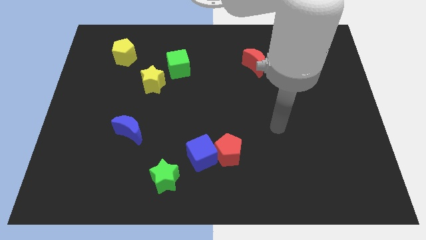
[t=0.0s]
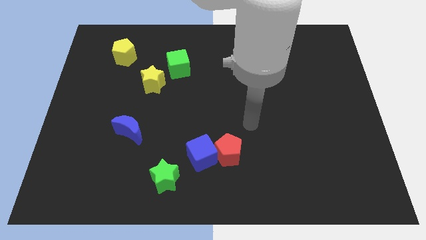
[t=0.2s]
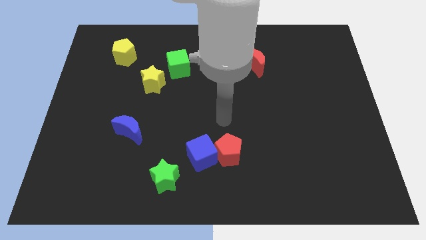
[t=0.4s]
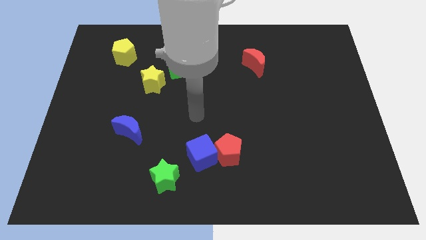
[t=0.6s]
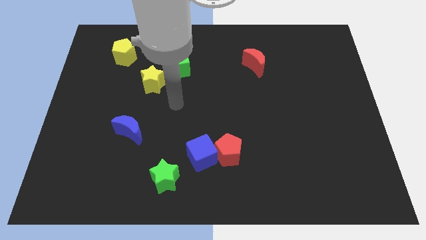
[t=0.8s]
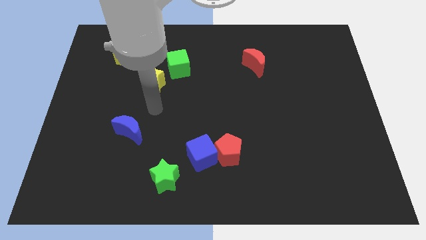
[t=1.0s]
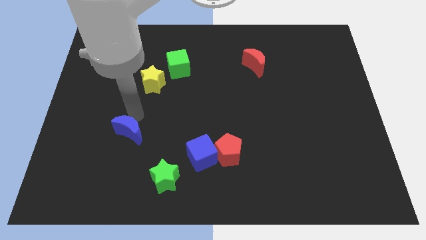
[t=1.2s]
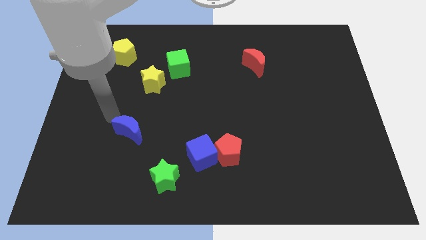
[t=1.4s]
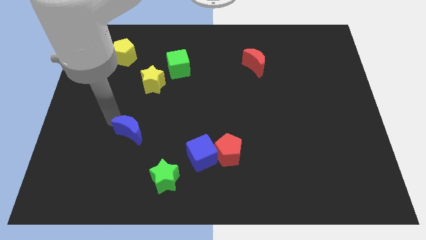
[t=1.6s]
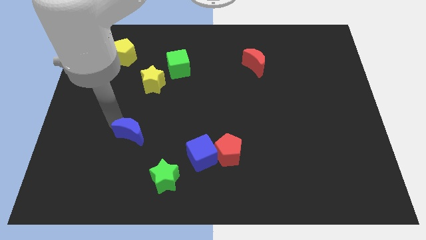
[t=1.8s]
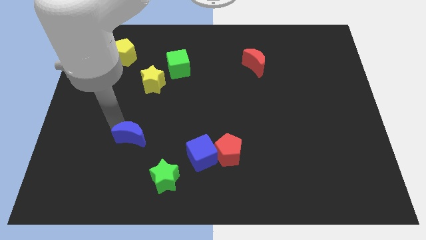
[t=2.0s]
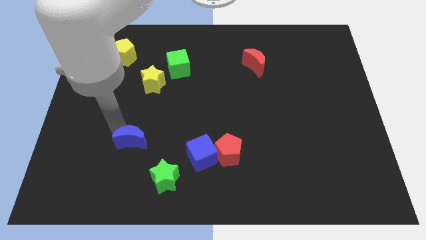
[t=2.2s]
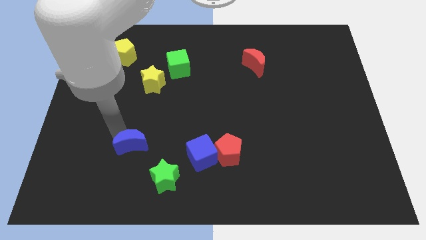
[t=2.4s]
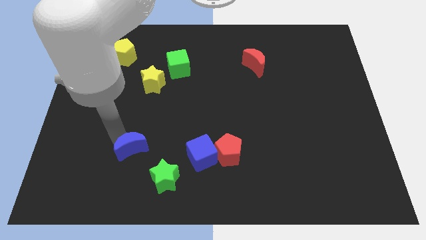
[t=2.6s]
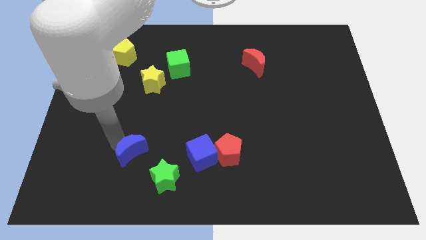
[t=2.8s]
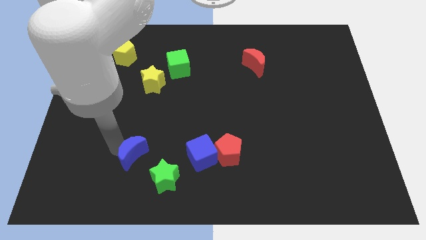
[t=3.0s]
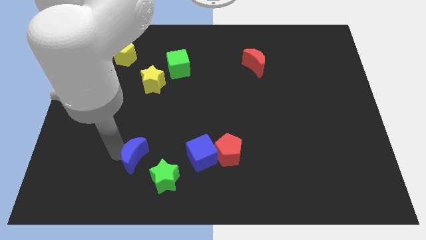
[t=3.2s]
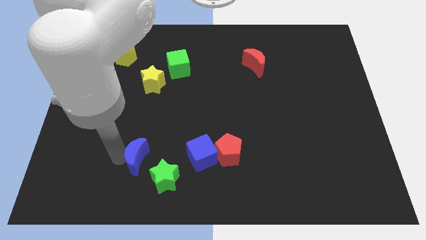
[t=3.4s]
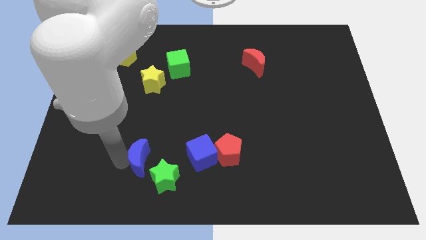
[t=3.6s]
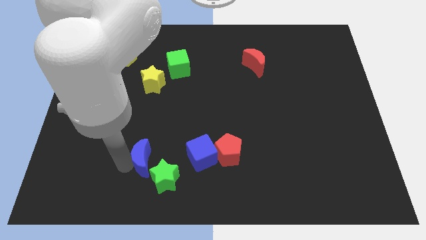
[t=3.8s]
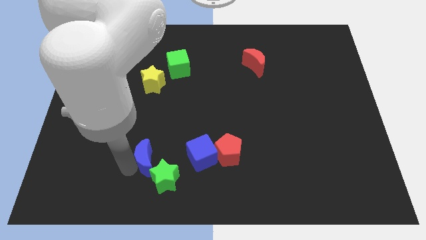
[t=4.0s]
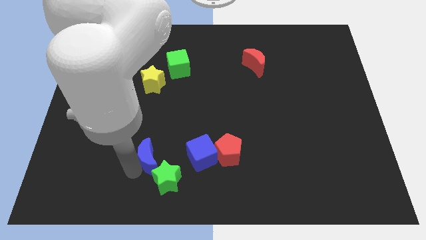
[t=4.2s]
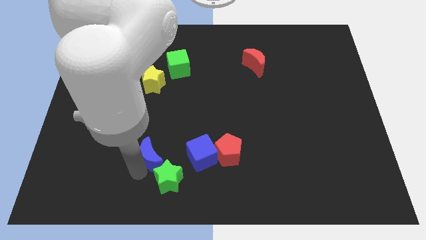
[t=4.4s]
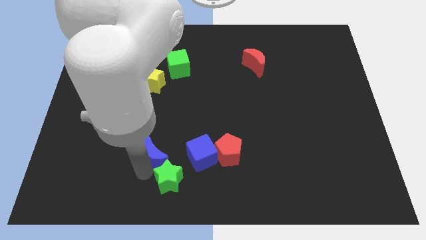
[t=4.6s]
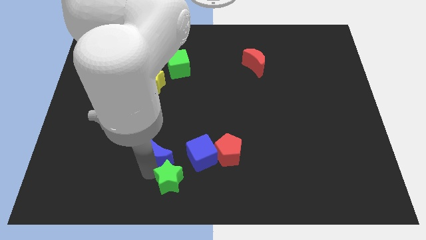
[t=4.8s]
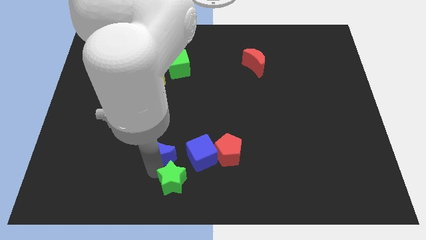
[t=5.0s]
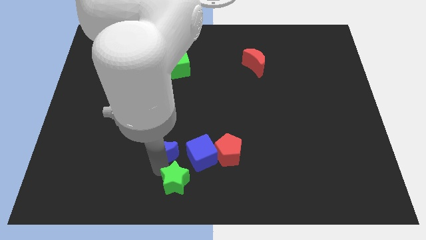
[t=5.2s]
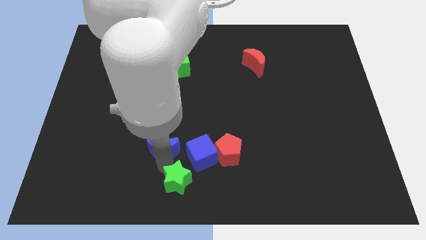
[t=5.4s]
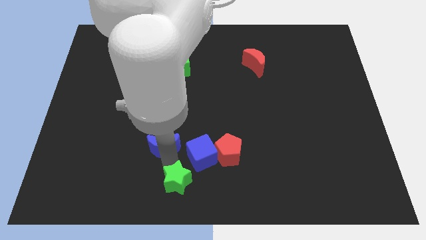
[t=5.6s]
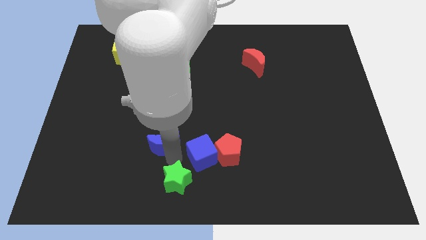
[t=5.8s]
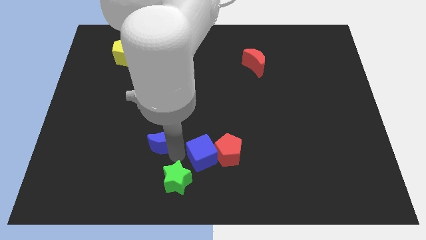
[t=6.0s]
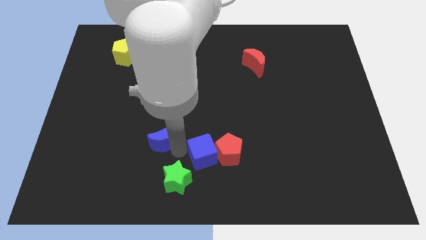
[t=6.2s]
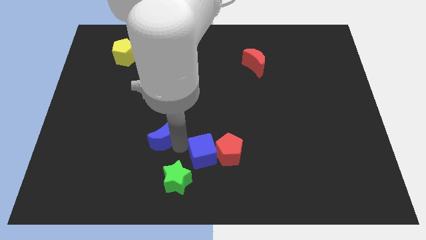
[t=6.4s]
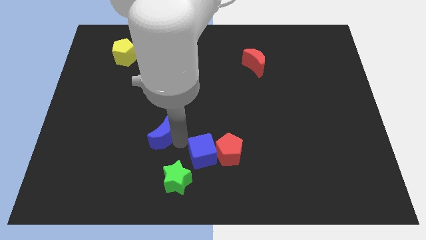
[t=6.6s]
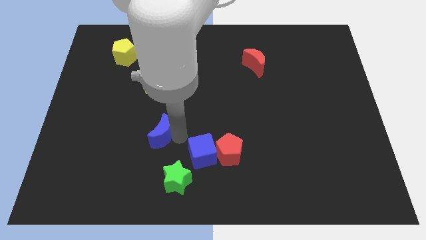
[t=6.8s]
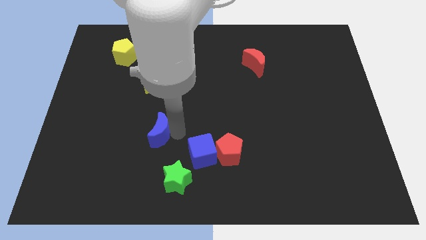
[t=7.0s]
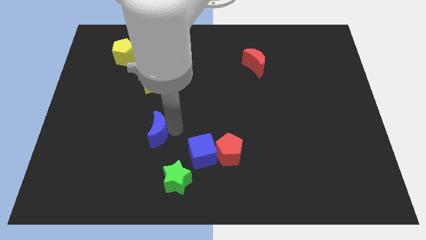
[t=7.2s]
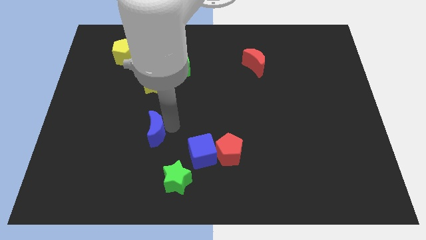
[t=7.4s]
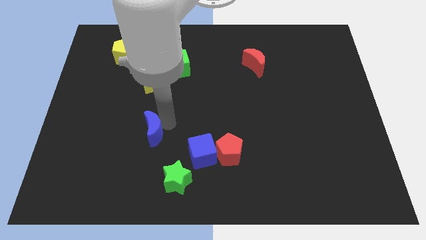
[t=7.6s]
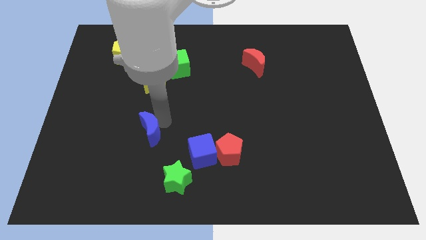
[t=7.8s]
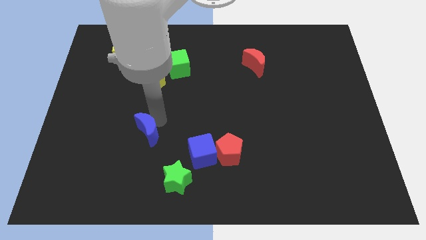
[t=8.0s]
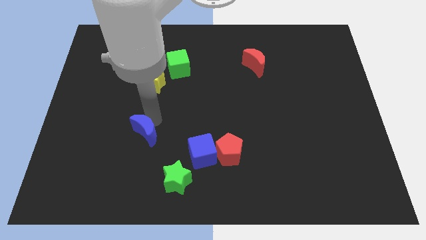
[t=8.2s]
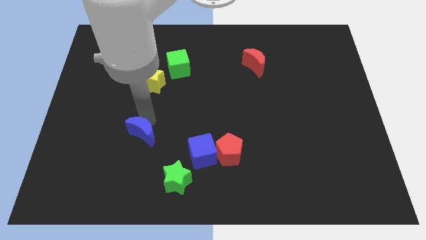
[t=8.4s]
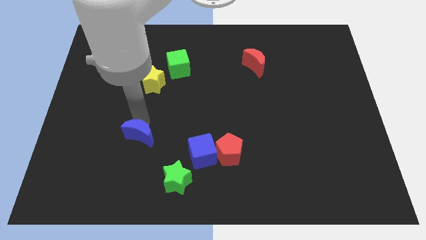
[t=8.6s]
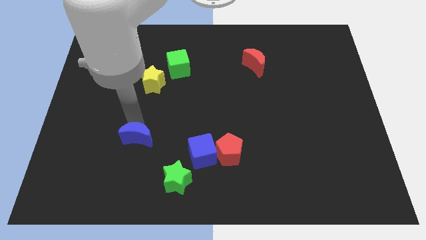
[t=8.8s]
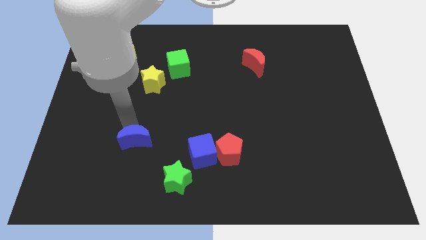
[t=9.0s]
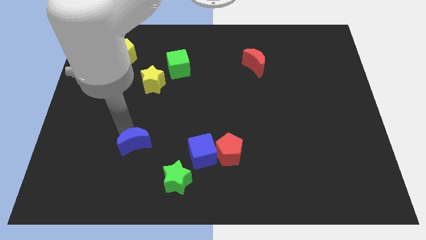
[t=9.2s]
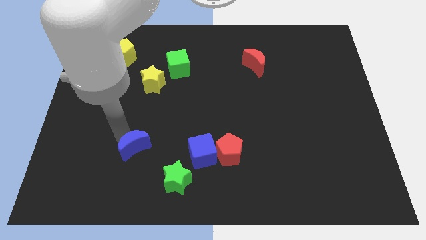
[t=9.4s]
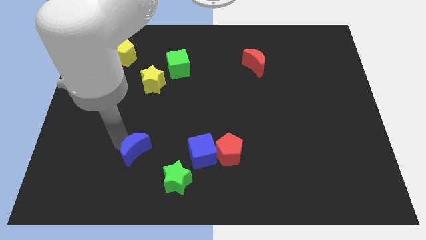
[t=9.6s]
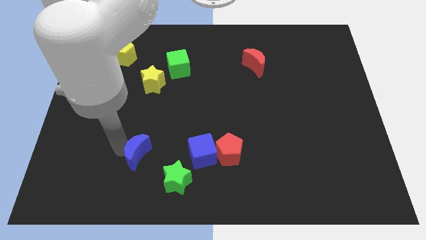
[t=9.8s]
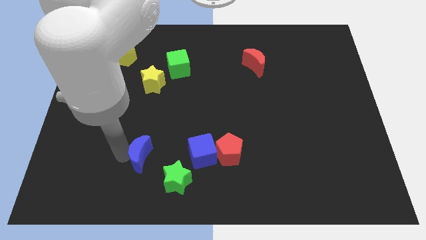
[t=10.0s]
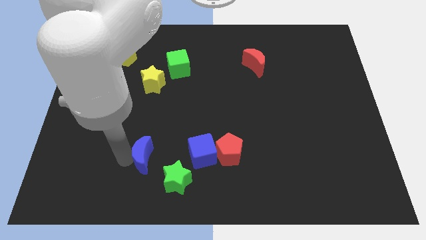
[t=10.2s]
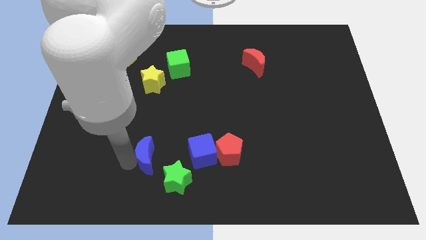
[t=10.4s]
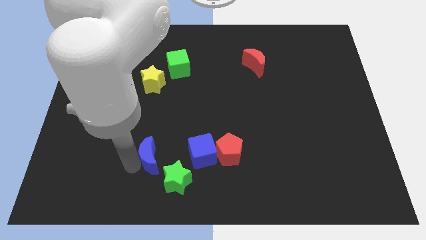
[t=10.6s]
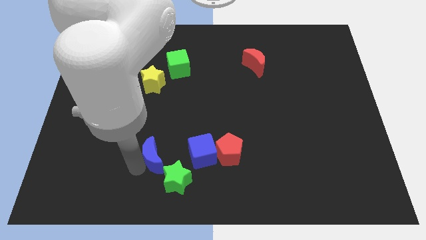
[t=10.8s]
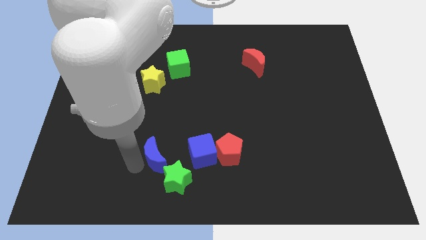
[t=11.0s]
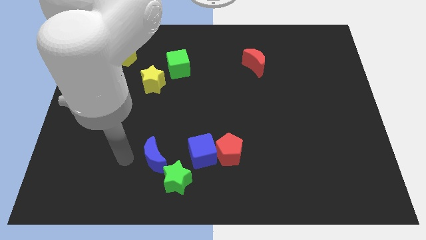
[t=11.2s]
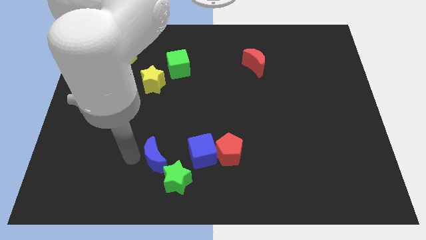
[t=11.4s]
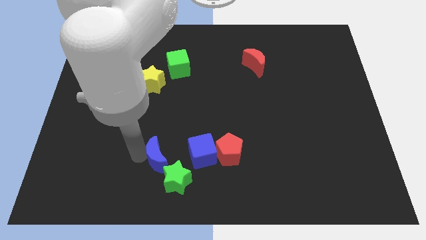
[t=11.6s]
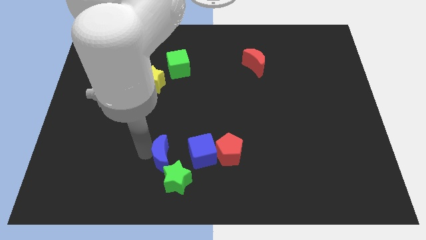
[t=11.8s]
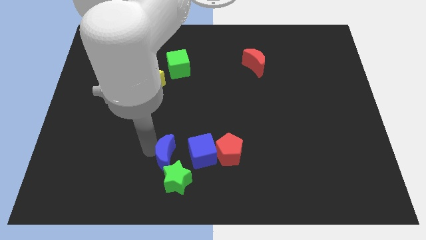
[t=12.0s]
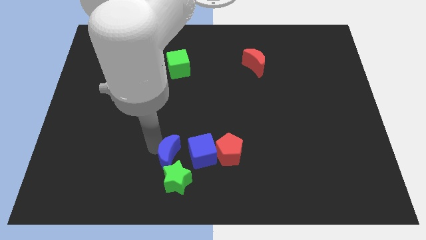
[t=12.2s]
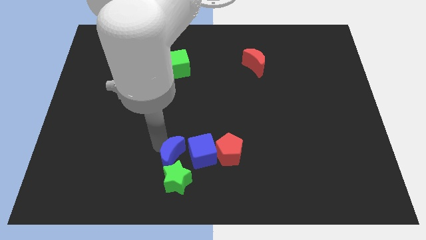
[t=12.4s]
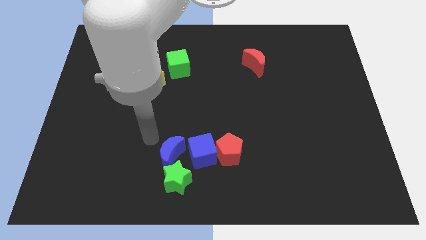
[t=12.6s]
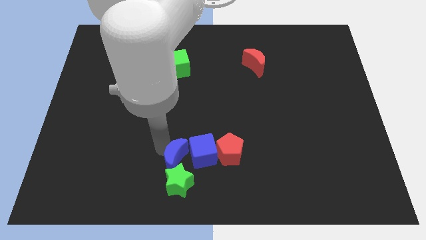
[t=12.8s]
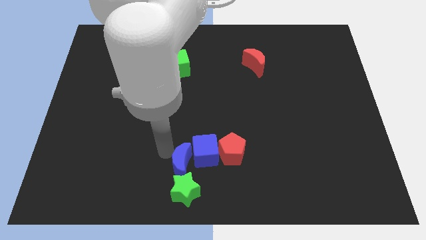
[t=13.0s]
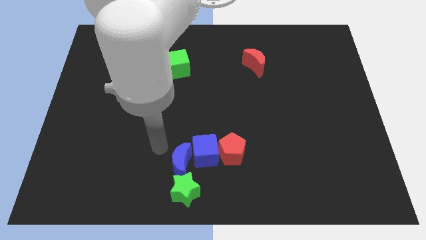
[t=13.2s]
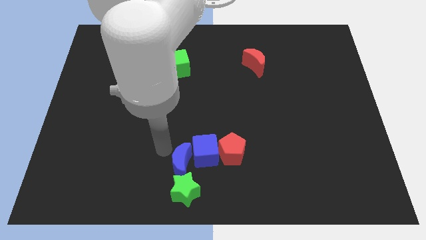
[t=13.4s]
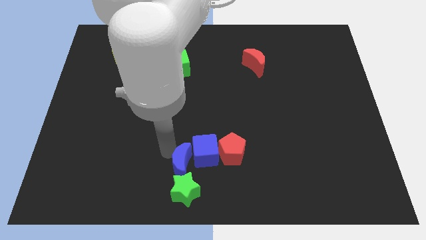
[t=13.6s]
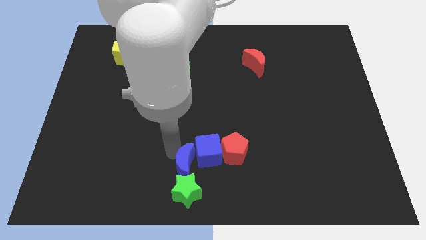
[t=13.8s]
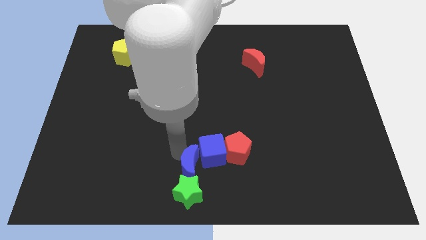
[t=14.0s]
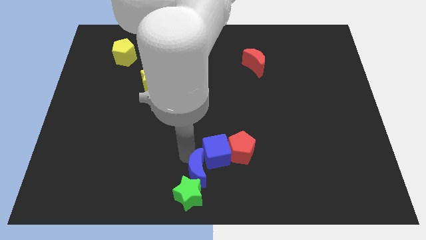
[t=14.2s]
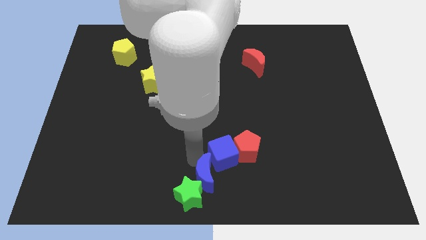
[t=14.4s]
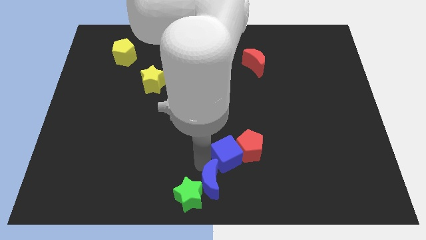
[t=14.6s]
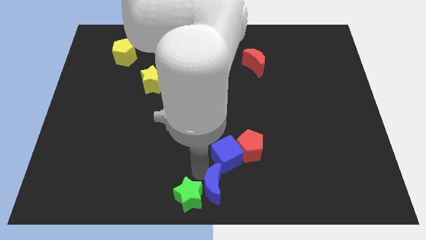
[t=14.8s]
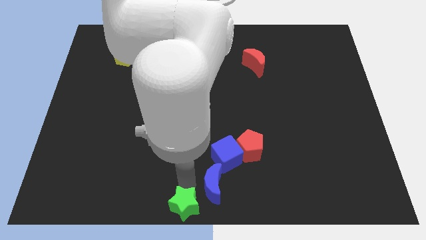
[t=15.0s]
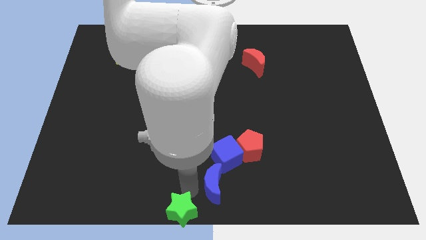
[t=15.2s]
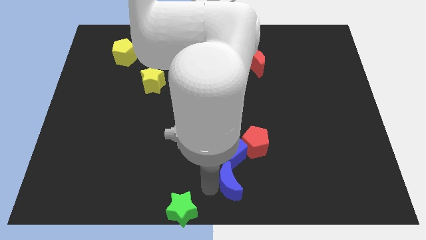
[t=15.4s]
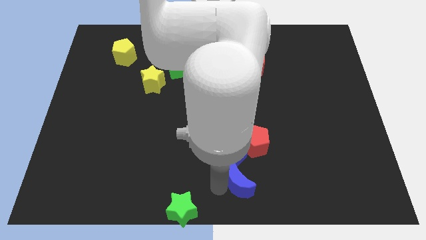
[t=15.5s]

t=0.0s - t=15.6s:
slide the blue moon to the bottom right side of the blue cube
